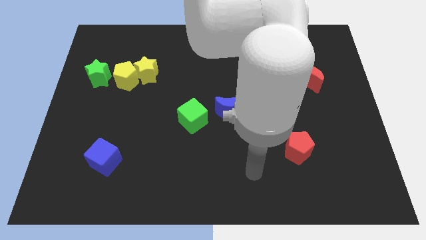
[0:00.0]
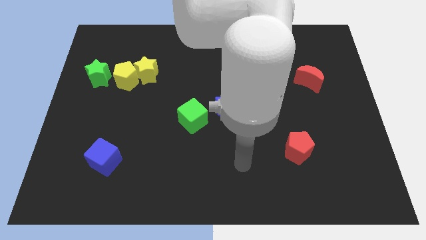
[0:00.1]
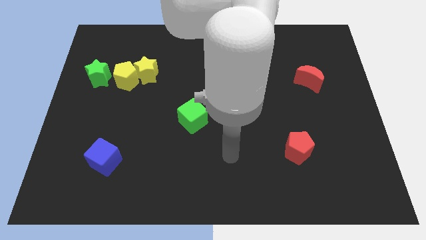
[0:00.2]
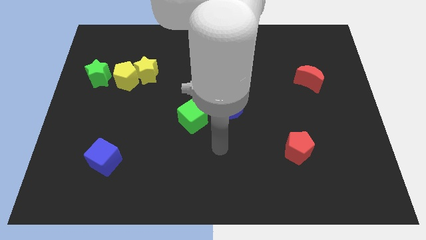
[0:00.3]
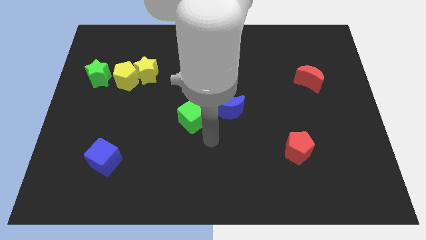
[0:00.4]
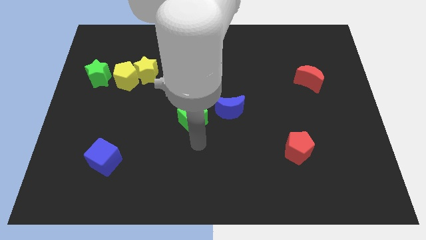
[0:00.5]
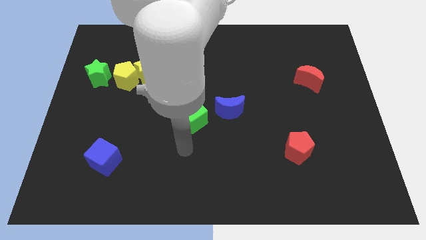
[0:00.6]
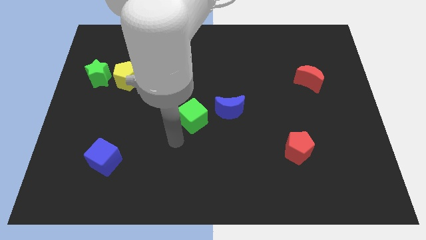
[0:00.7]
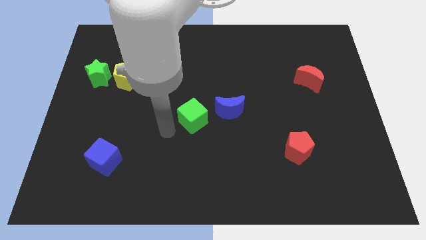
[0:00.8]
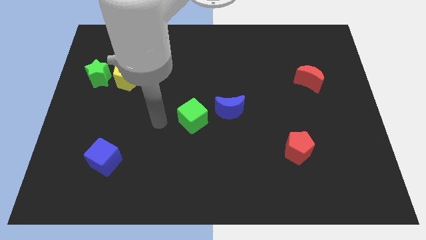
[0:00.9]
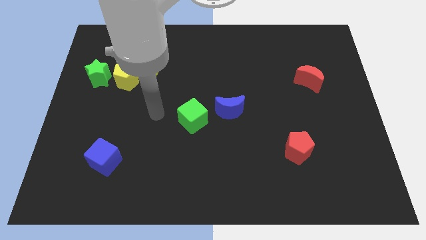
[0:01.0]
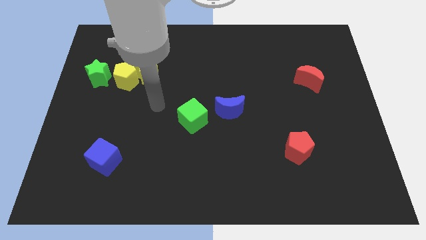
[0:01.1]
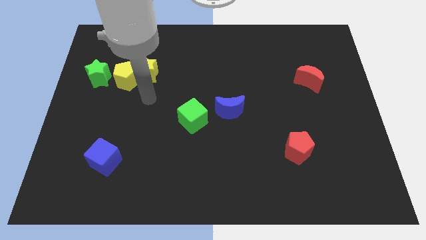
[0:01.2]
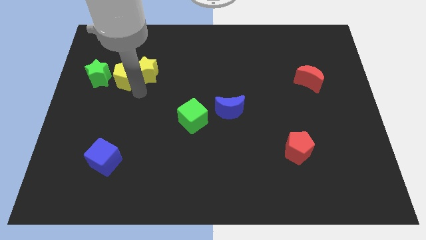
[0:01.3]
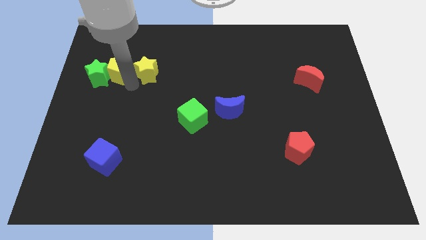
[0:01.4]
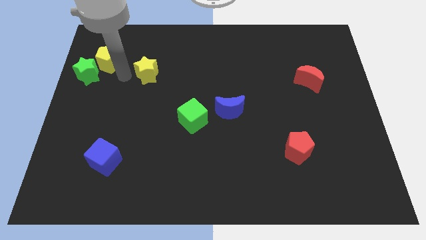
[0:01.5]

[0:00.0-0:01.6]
separate the yellow star from the yellow pentagon

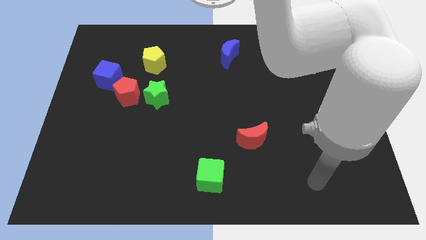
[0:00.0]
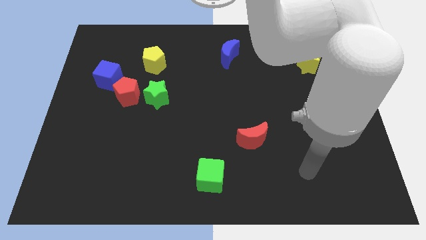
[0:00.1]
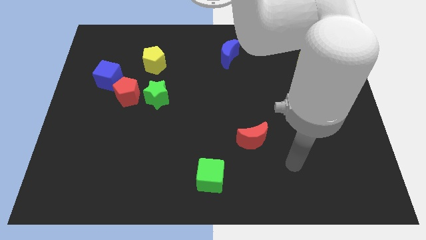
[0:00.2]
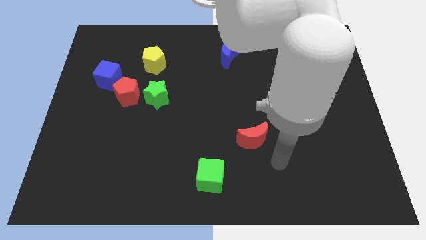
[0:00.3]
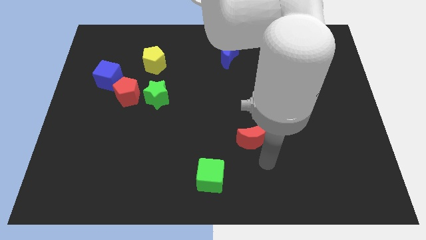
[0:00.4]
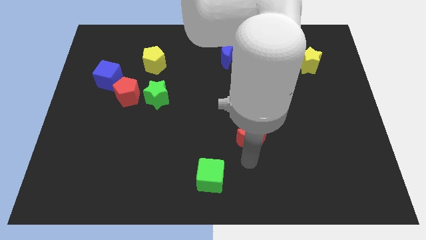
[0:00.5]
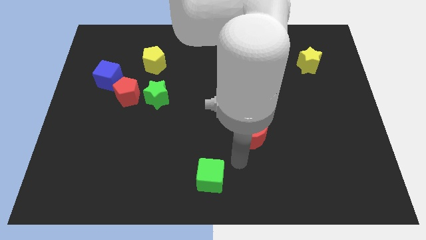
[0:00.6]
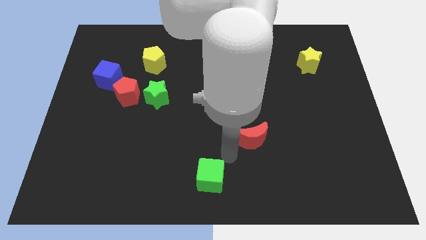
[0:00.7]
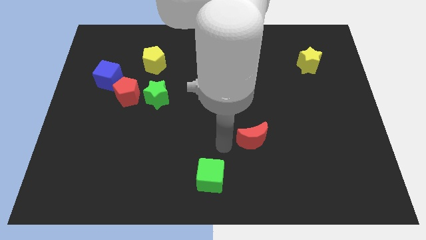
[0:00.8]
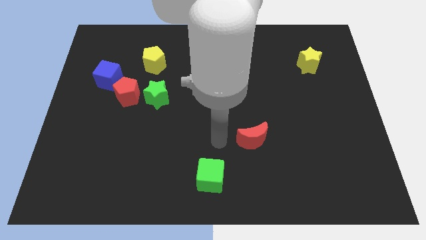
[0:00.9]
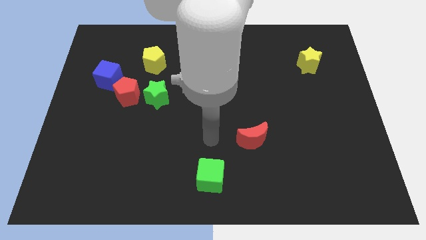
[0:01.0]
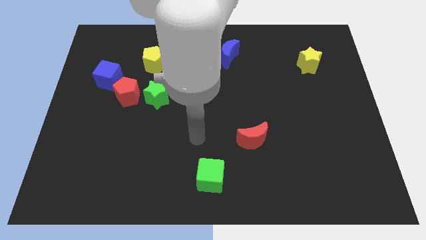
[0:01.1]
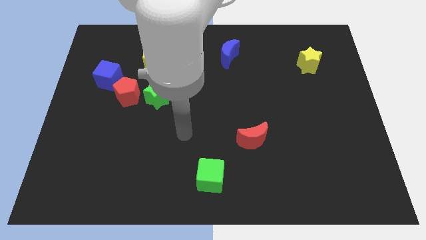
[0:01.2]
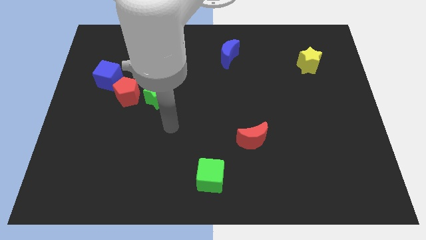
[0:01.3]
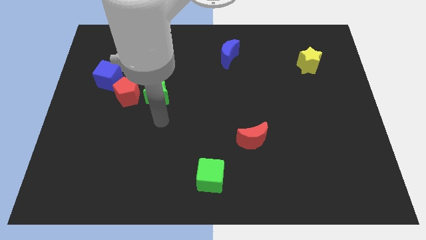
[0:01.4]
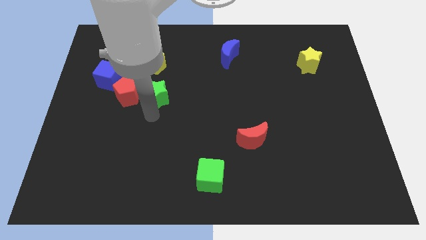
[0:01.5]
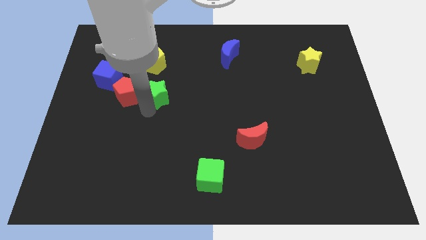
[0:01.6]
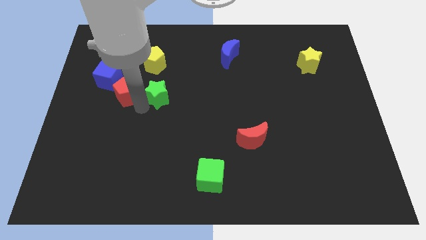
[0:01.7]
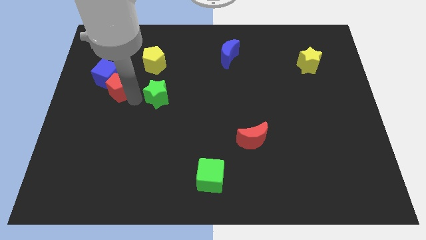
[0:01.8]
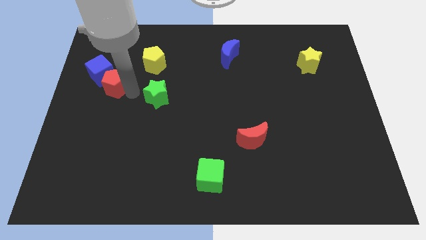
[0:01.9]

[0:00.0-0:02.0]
move the green star away from the red pentagon

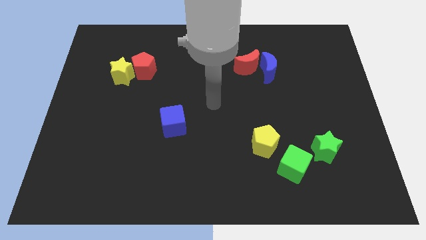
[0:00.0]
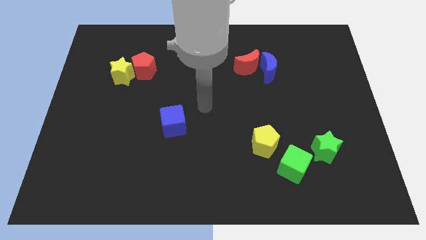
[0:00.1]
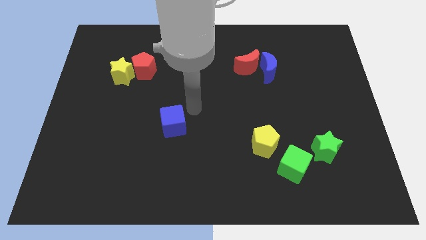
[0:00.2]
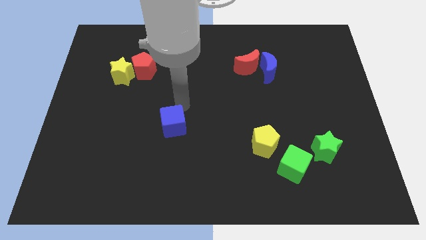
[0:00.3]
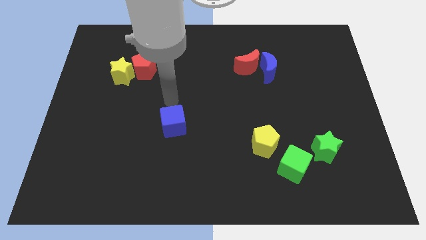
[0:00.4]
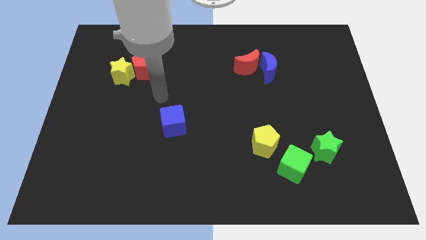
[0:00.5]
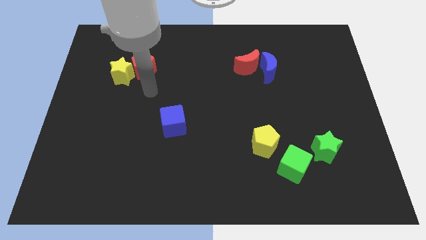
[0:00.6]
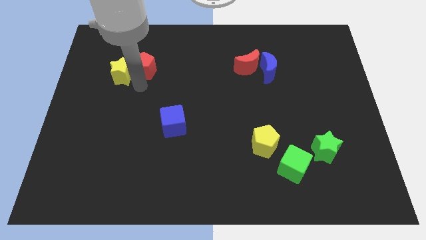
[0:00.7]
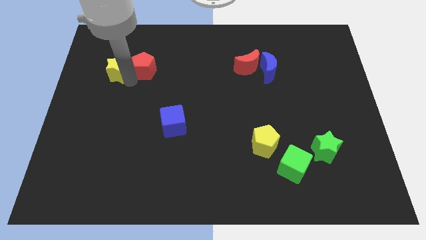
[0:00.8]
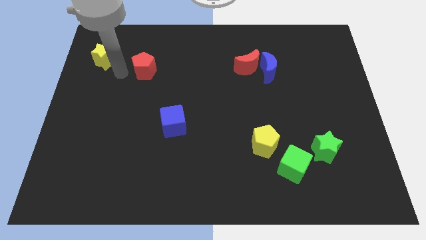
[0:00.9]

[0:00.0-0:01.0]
pull the red pentagon apart from the yellow star

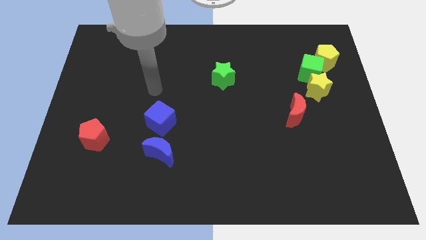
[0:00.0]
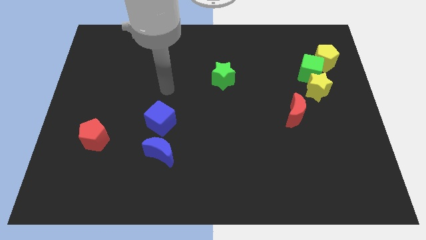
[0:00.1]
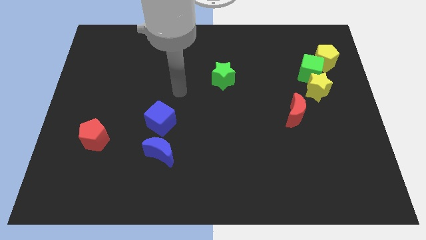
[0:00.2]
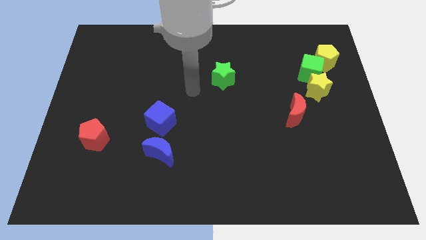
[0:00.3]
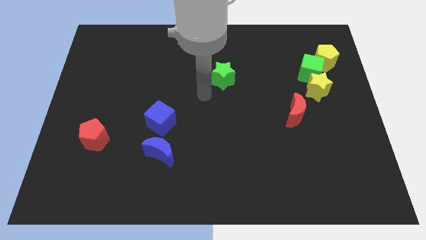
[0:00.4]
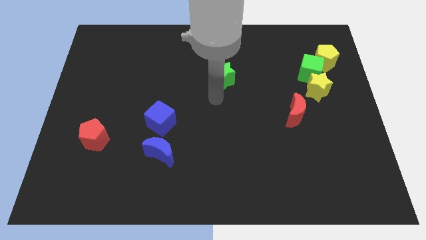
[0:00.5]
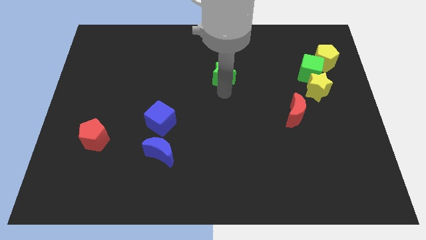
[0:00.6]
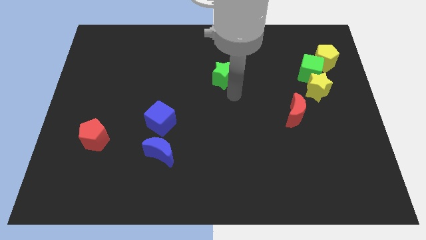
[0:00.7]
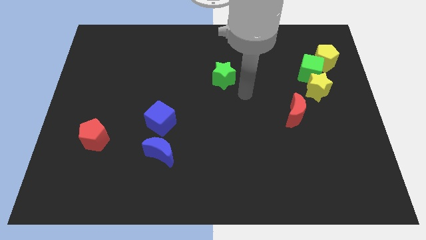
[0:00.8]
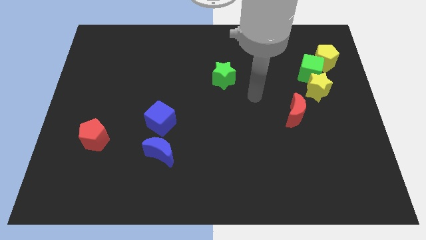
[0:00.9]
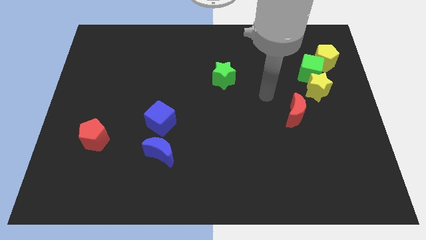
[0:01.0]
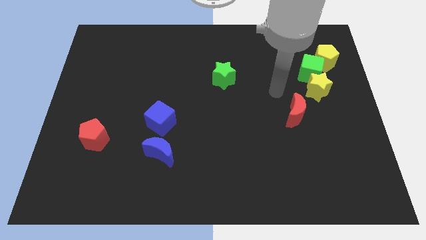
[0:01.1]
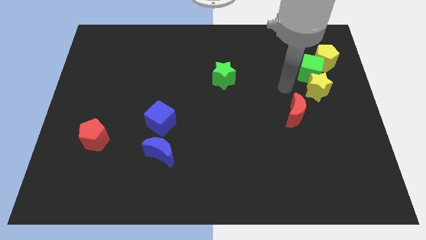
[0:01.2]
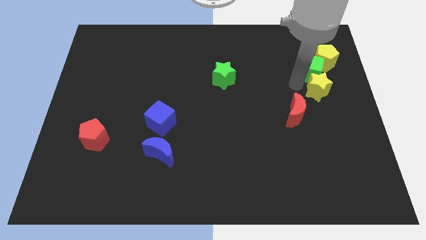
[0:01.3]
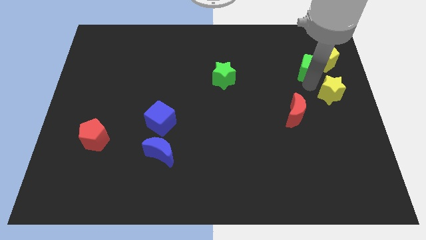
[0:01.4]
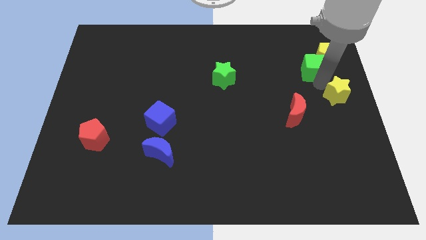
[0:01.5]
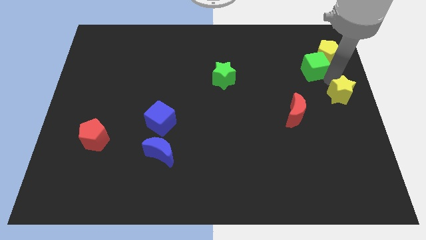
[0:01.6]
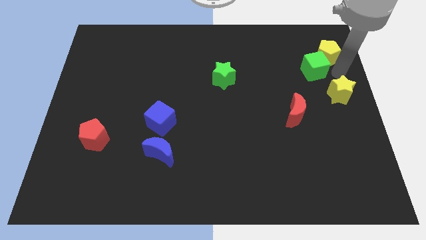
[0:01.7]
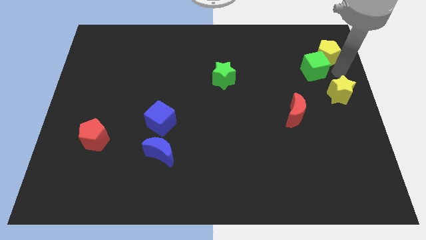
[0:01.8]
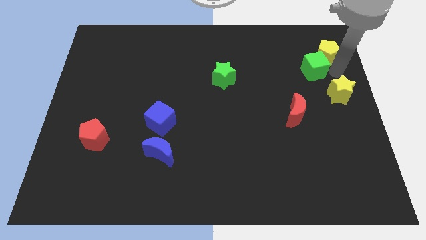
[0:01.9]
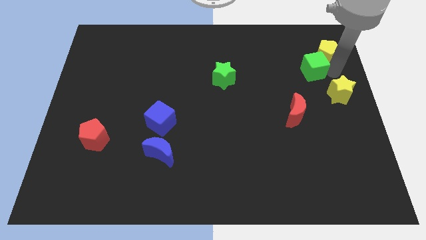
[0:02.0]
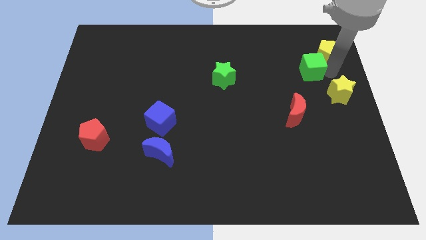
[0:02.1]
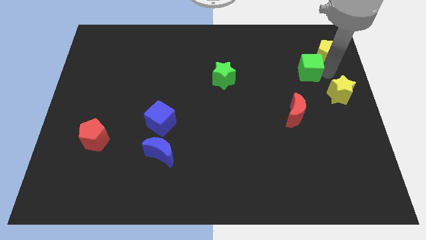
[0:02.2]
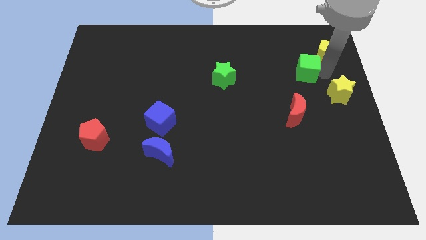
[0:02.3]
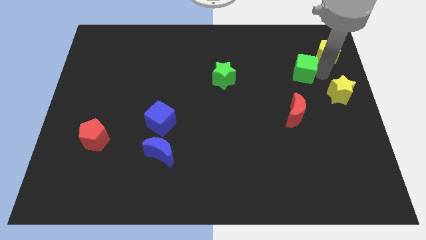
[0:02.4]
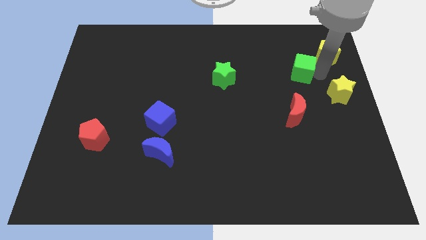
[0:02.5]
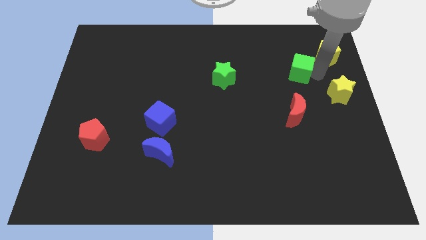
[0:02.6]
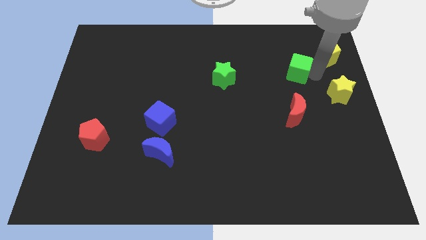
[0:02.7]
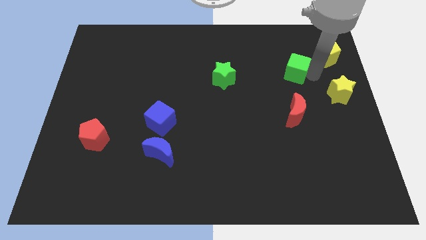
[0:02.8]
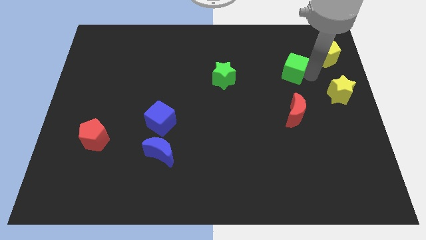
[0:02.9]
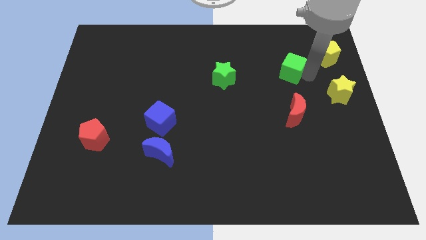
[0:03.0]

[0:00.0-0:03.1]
pull the green cube apart from the yellow pentagon and yellow star

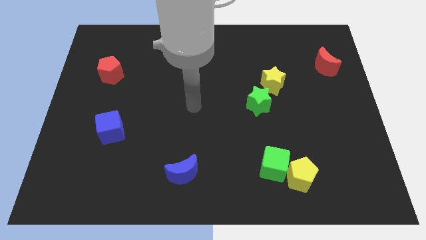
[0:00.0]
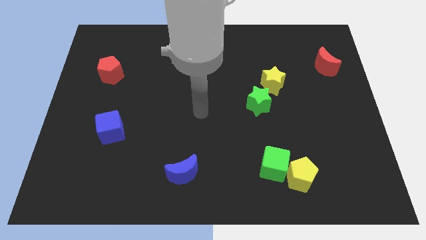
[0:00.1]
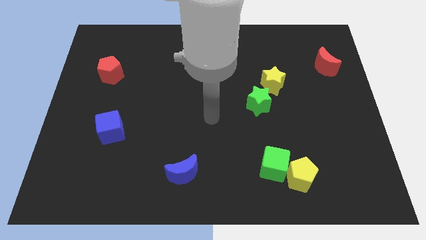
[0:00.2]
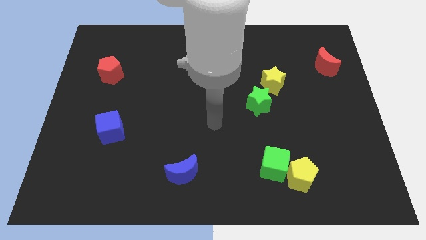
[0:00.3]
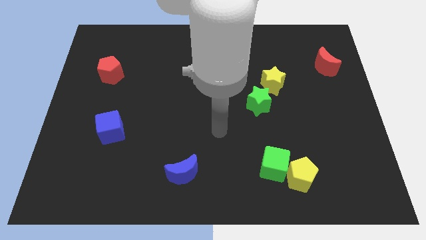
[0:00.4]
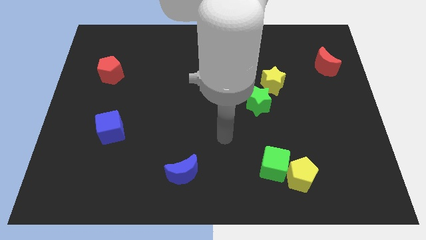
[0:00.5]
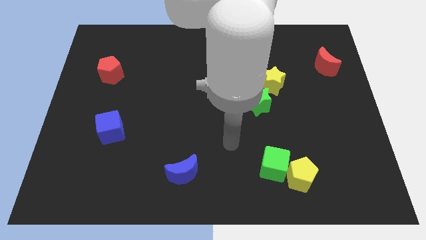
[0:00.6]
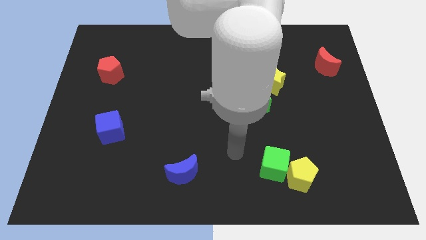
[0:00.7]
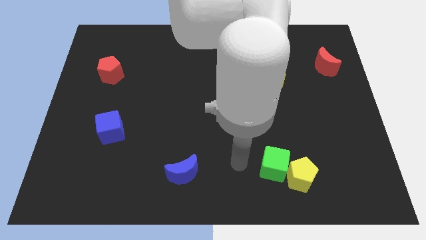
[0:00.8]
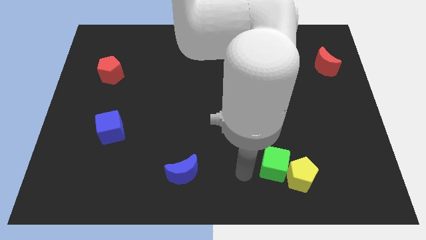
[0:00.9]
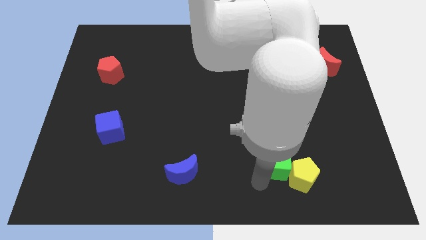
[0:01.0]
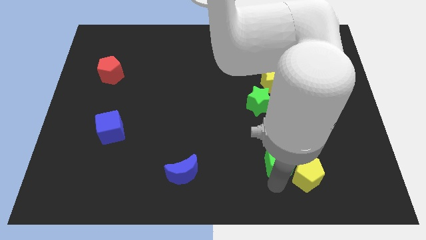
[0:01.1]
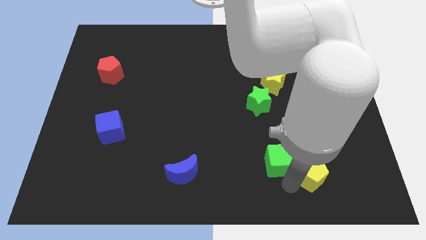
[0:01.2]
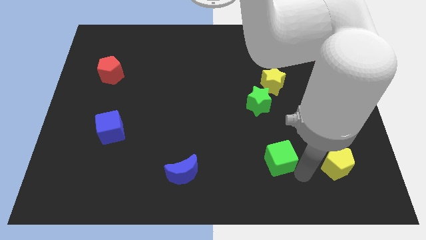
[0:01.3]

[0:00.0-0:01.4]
pull the green cube apart from the yellow pentagon

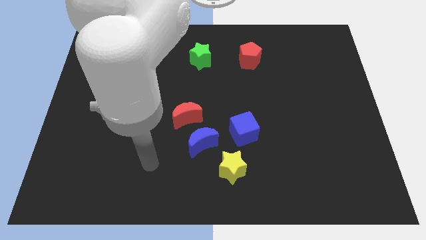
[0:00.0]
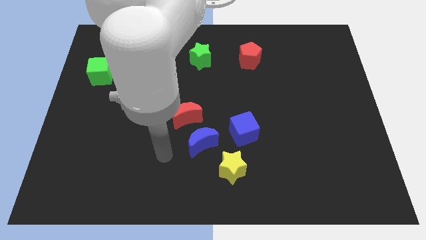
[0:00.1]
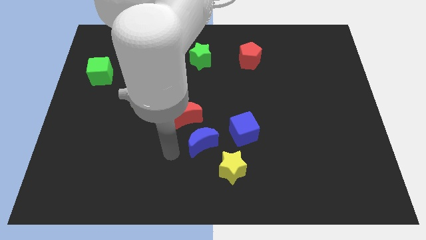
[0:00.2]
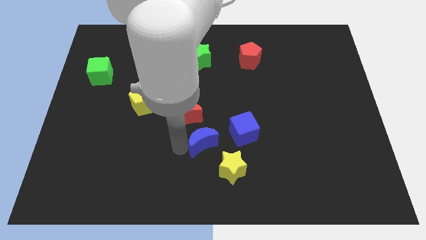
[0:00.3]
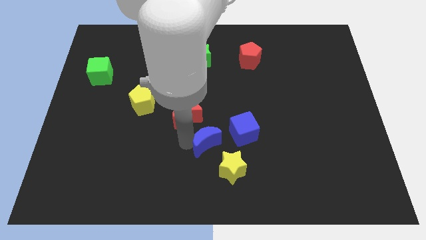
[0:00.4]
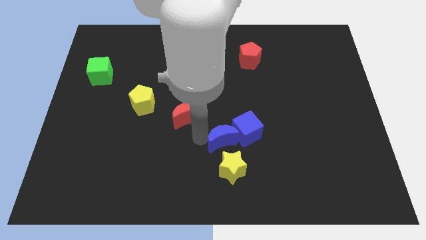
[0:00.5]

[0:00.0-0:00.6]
move the red moon away from the blue moon
